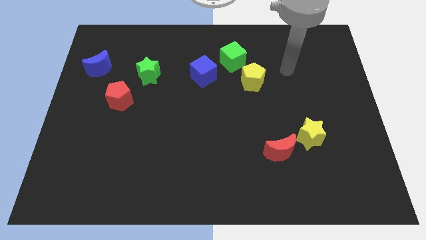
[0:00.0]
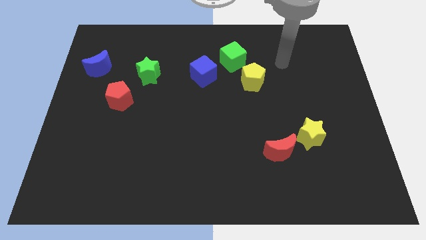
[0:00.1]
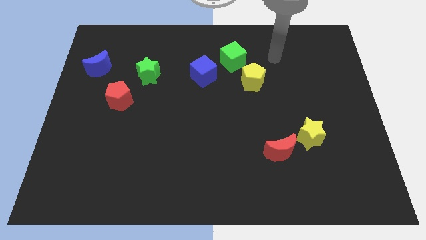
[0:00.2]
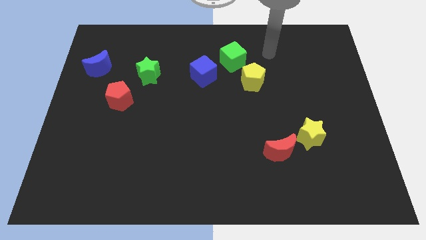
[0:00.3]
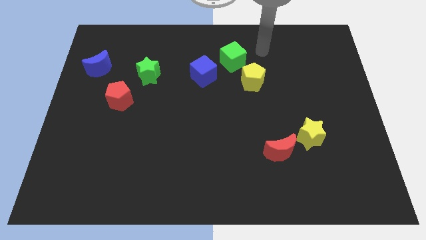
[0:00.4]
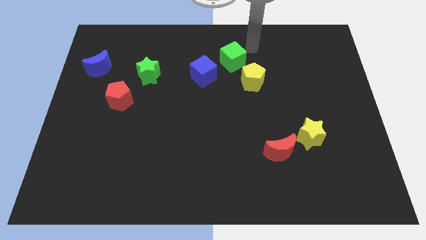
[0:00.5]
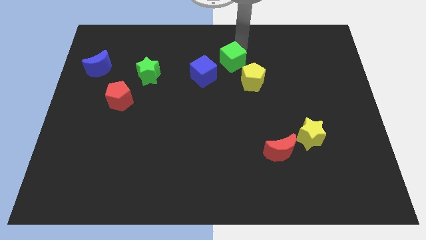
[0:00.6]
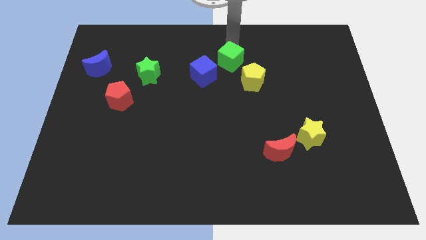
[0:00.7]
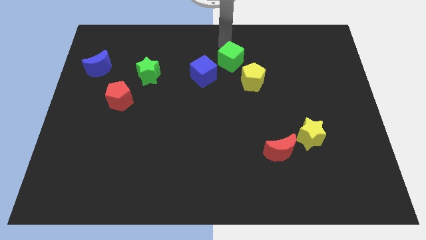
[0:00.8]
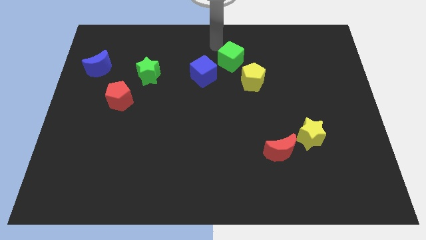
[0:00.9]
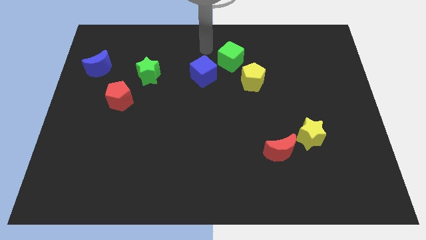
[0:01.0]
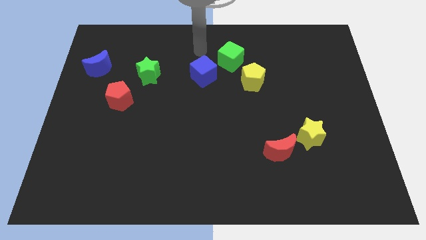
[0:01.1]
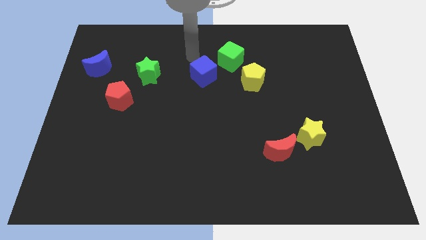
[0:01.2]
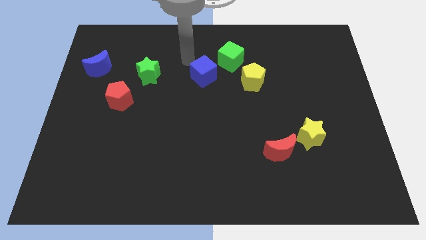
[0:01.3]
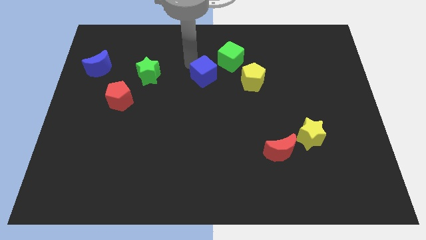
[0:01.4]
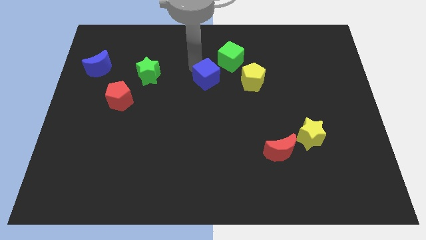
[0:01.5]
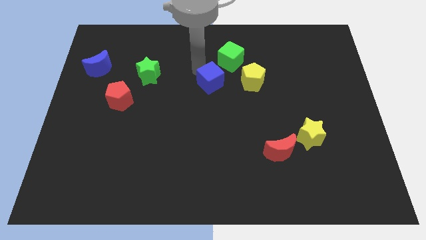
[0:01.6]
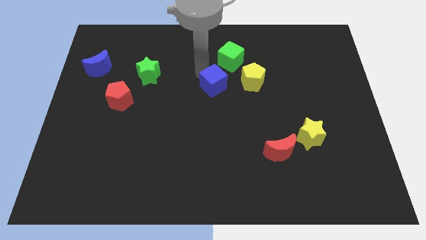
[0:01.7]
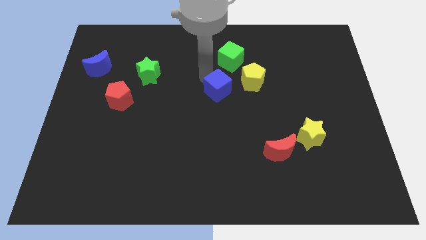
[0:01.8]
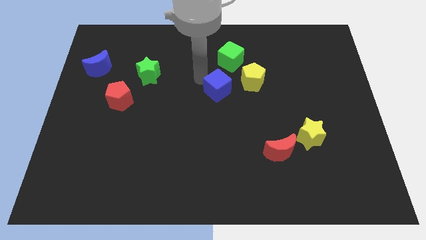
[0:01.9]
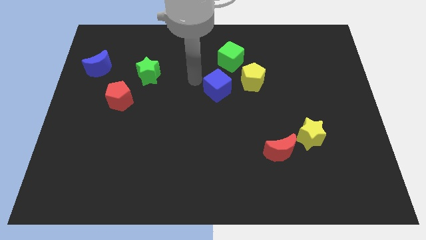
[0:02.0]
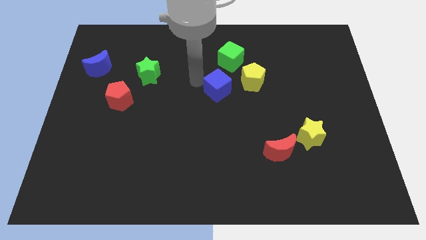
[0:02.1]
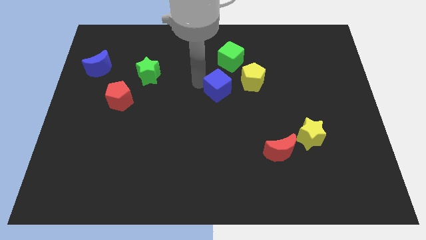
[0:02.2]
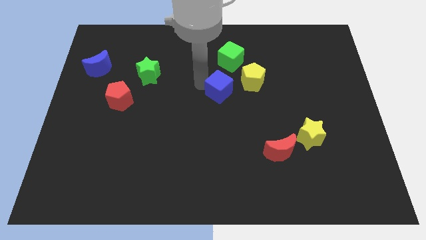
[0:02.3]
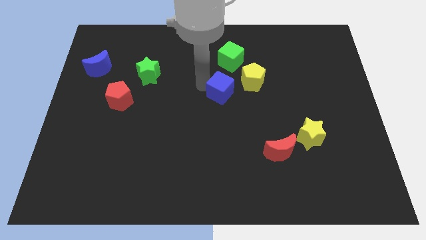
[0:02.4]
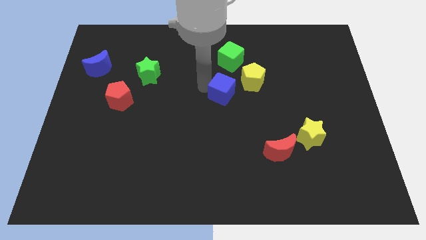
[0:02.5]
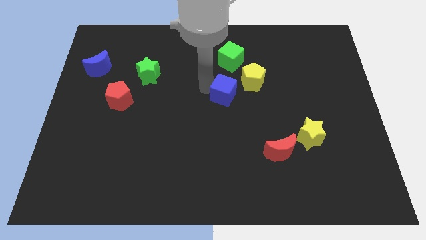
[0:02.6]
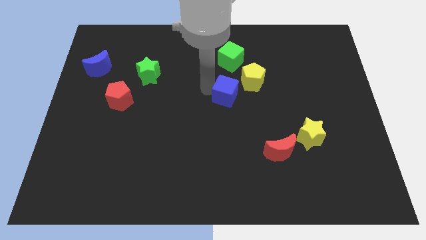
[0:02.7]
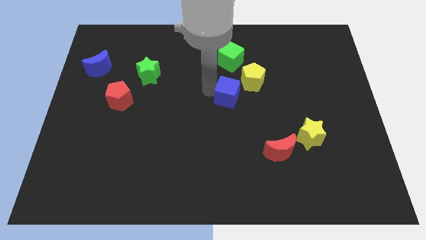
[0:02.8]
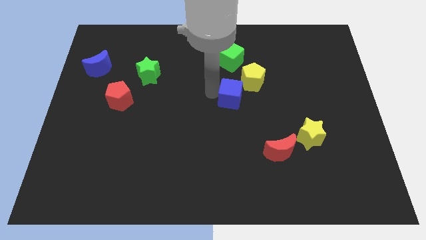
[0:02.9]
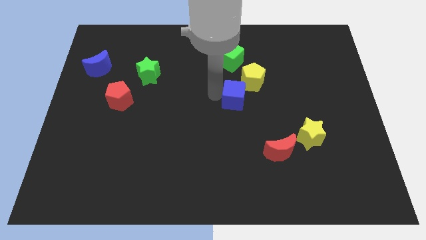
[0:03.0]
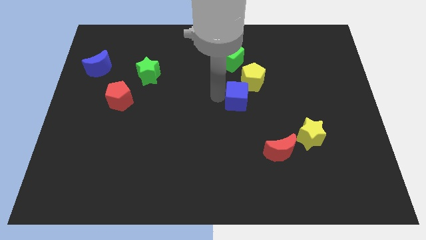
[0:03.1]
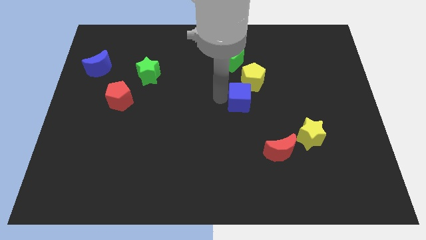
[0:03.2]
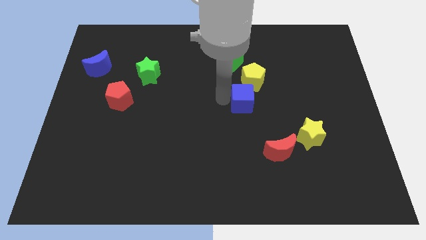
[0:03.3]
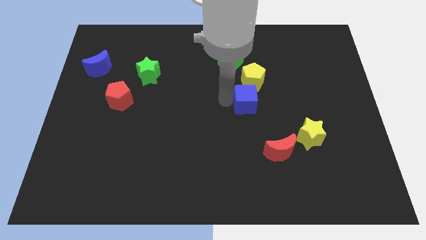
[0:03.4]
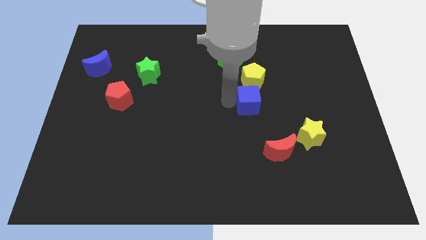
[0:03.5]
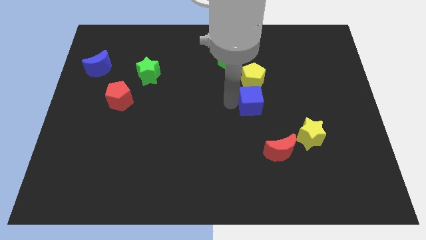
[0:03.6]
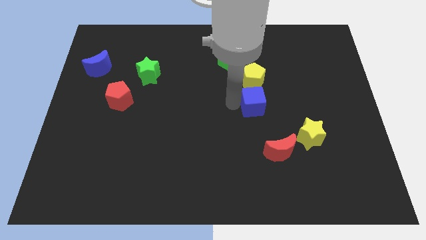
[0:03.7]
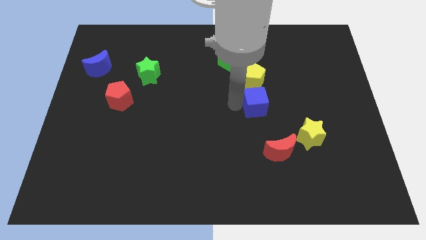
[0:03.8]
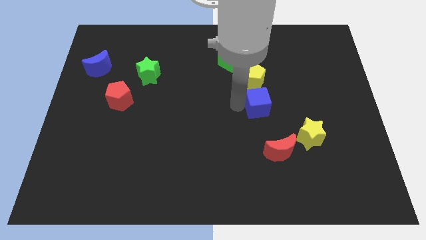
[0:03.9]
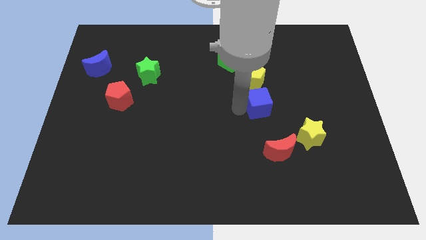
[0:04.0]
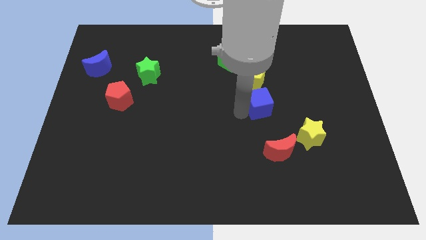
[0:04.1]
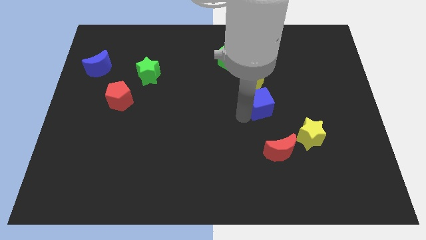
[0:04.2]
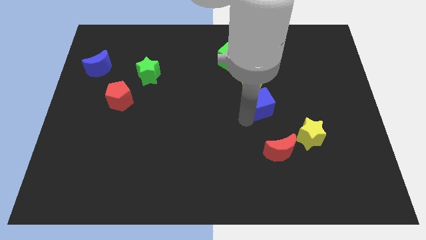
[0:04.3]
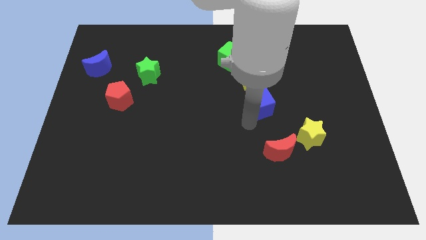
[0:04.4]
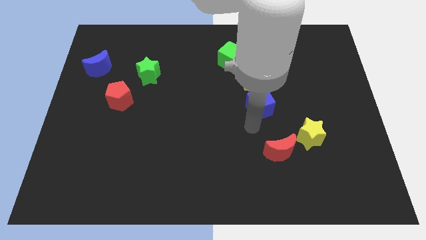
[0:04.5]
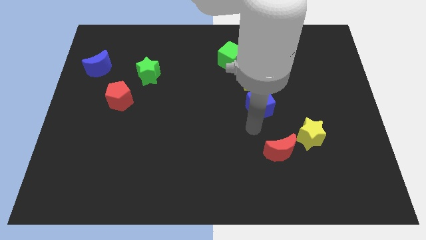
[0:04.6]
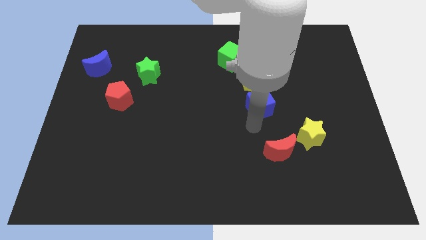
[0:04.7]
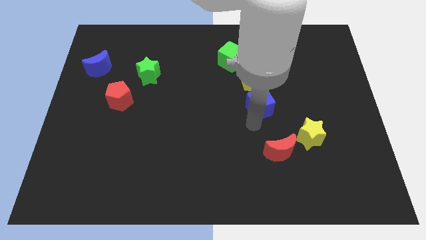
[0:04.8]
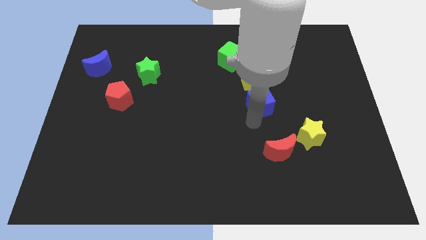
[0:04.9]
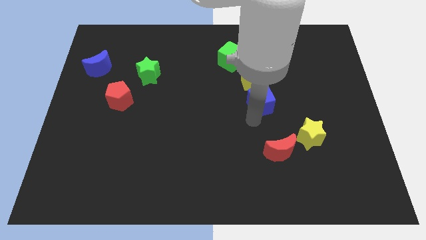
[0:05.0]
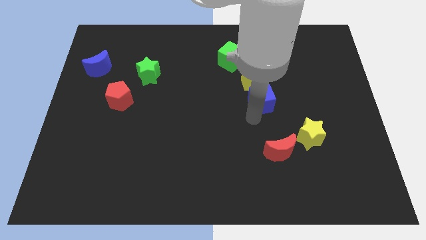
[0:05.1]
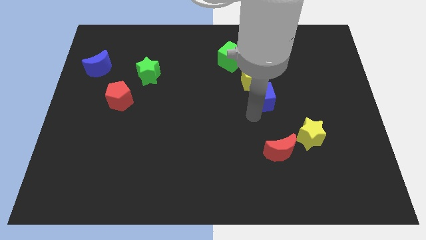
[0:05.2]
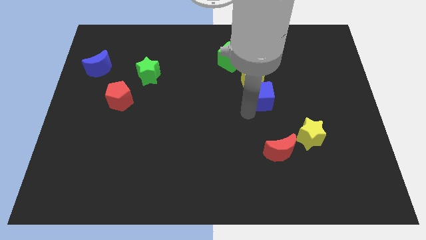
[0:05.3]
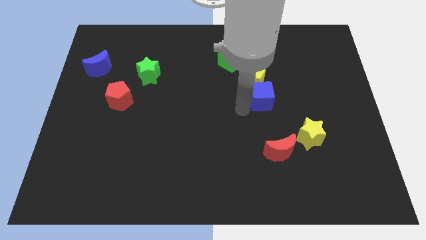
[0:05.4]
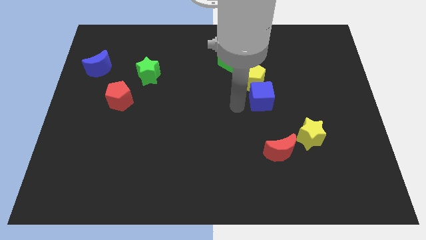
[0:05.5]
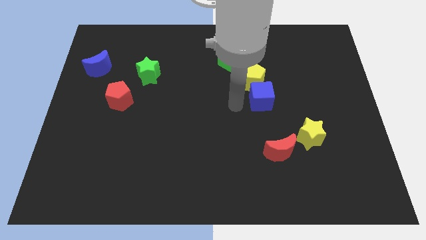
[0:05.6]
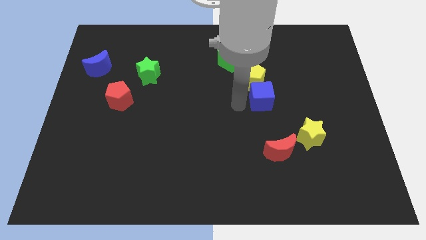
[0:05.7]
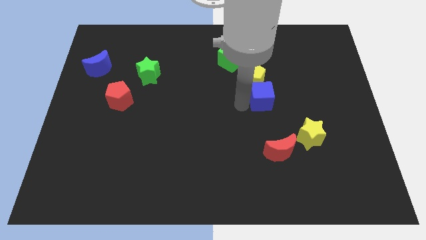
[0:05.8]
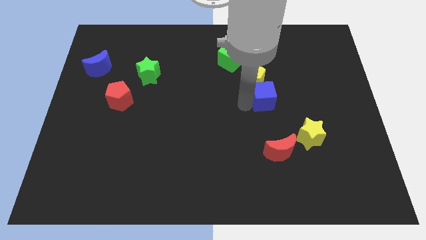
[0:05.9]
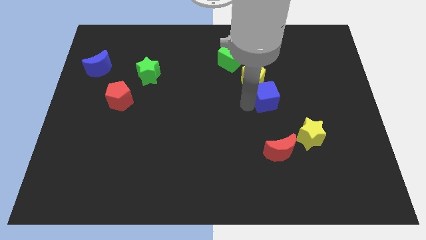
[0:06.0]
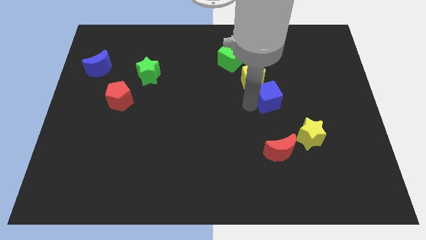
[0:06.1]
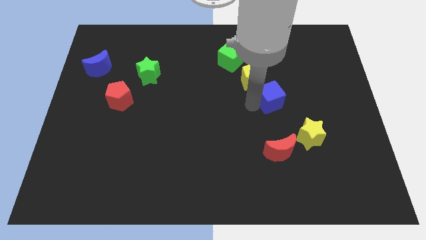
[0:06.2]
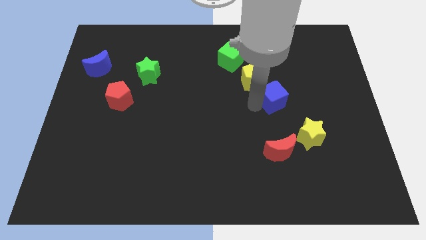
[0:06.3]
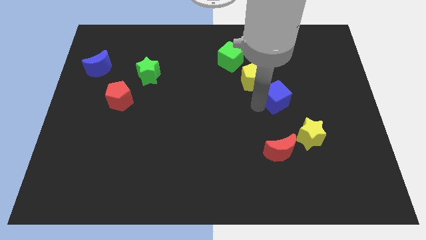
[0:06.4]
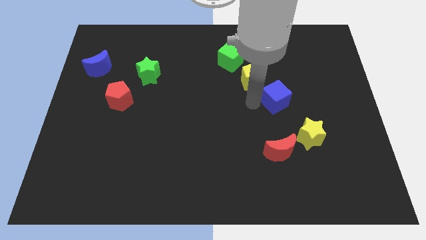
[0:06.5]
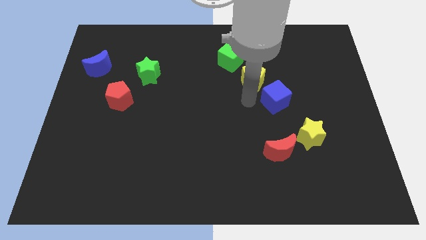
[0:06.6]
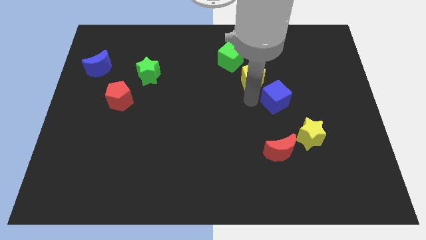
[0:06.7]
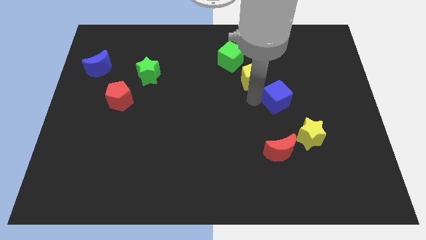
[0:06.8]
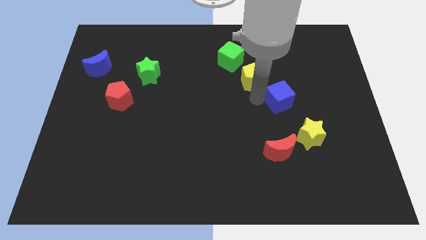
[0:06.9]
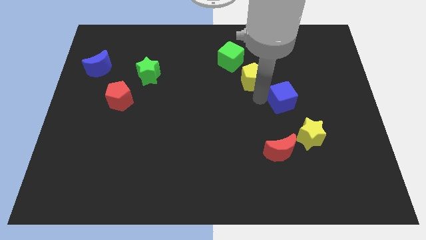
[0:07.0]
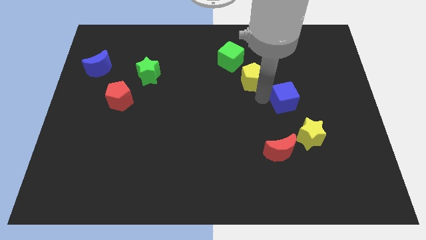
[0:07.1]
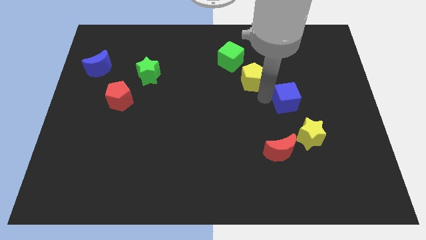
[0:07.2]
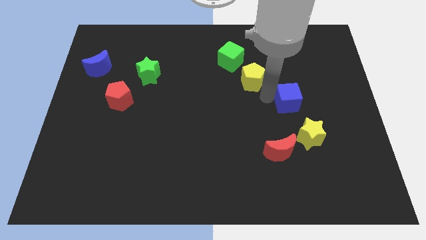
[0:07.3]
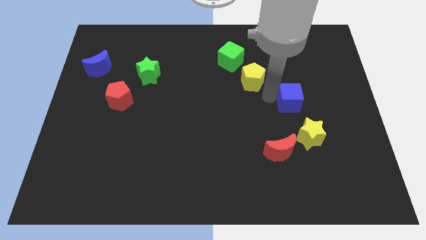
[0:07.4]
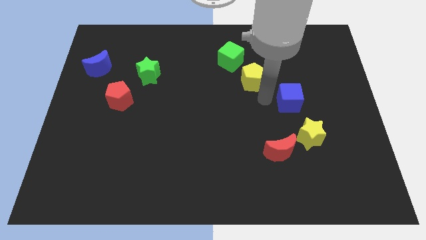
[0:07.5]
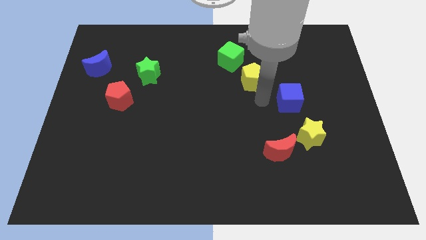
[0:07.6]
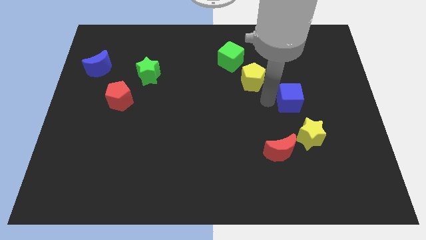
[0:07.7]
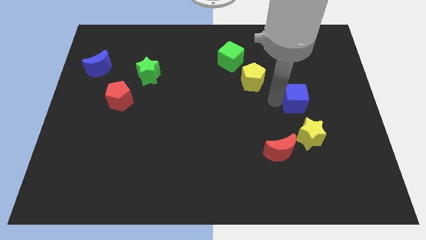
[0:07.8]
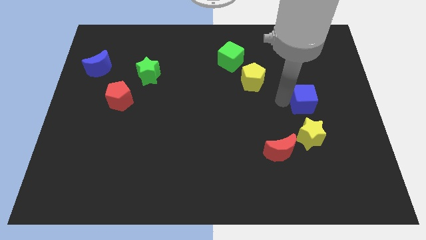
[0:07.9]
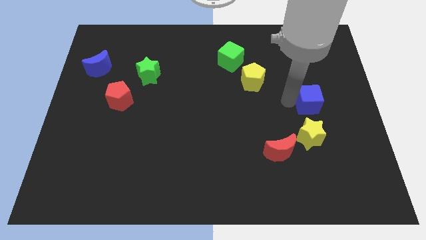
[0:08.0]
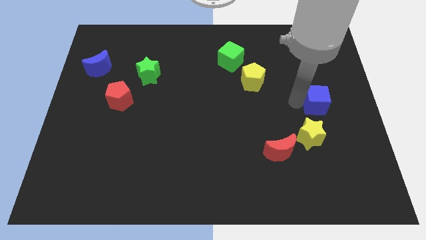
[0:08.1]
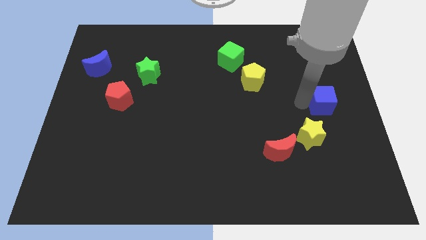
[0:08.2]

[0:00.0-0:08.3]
slide the blue cube to the center right
